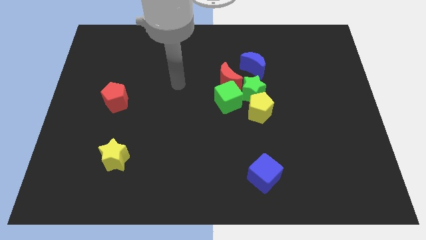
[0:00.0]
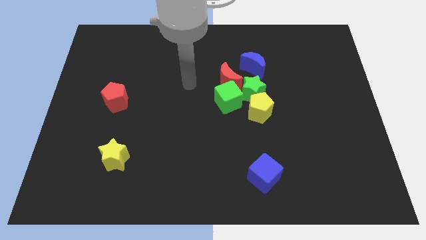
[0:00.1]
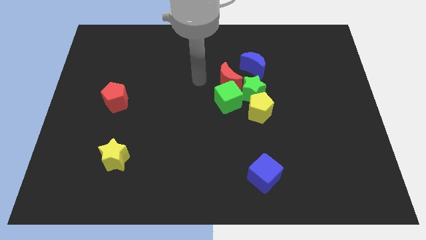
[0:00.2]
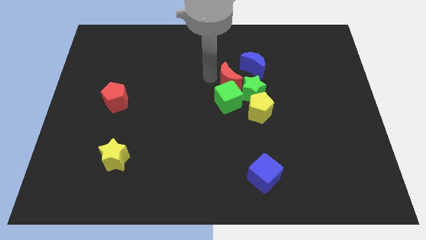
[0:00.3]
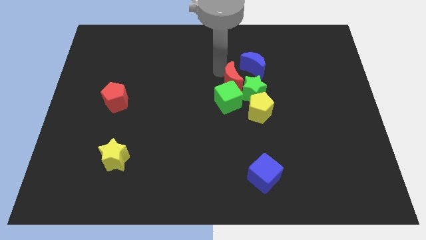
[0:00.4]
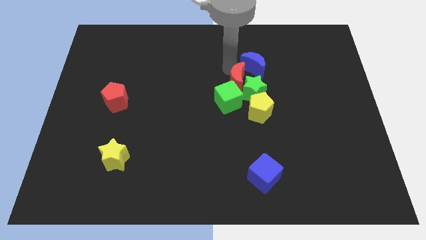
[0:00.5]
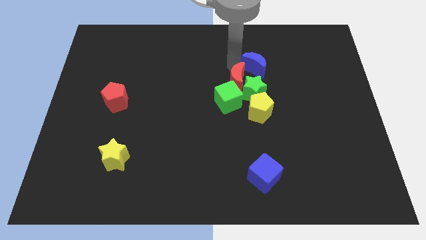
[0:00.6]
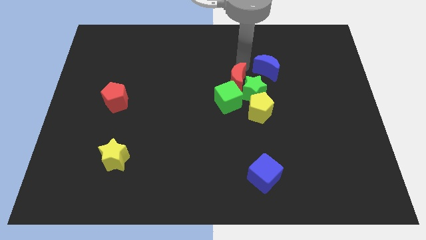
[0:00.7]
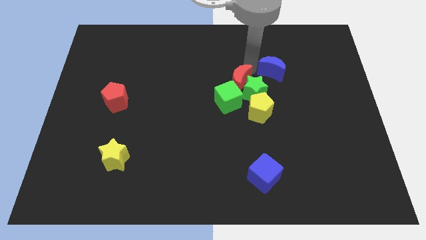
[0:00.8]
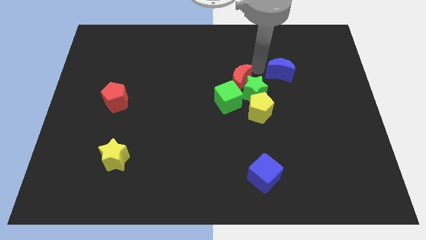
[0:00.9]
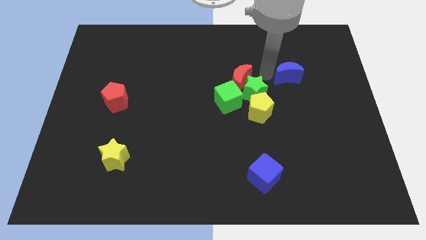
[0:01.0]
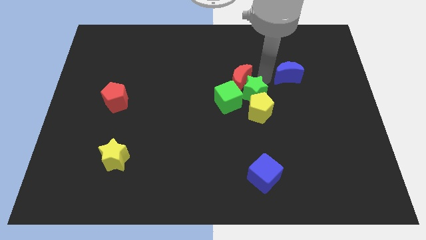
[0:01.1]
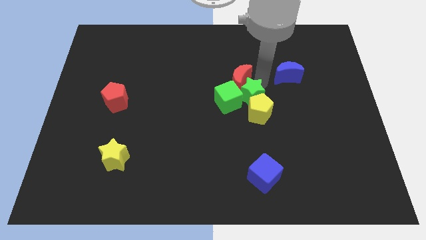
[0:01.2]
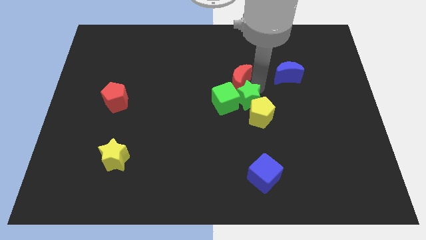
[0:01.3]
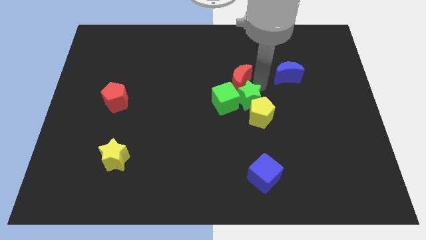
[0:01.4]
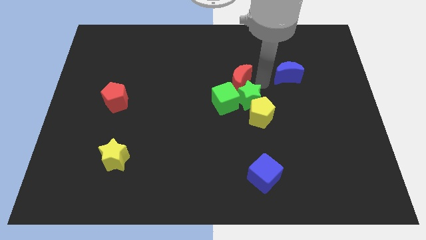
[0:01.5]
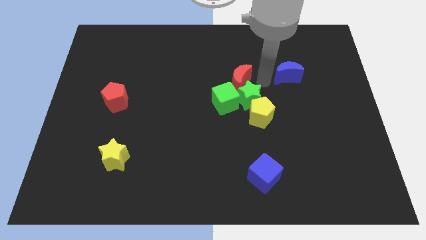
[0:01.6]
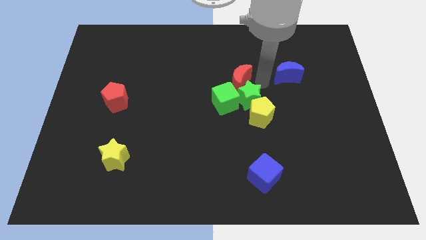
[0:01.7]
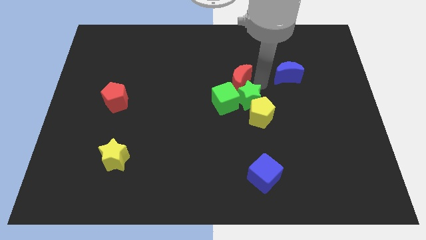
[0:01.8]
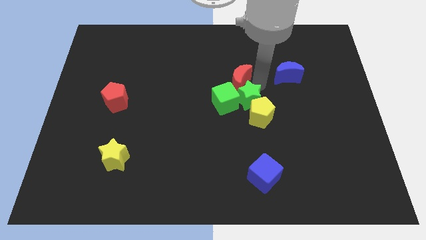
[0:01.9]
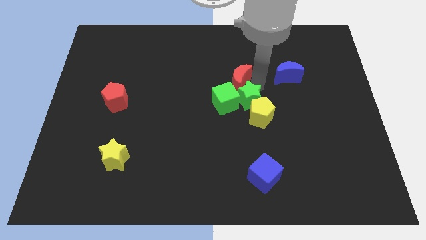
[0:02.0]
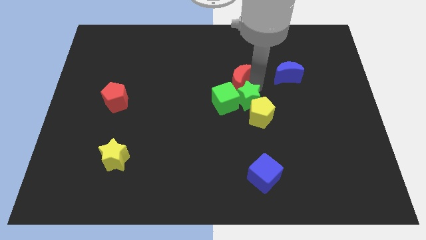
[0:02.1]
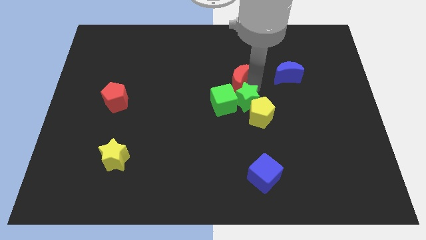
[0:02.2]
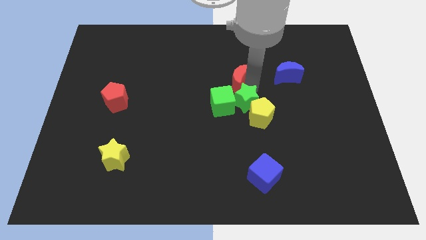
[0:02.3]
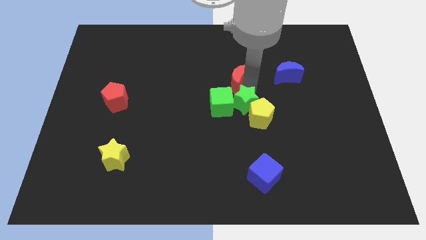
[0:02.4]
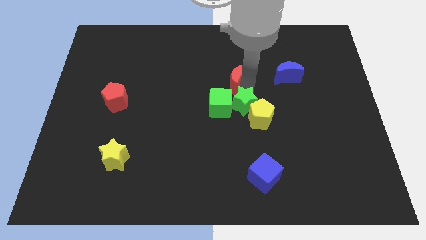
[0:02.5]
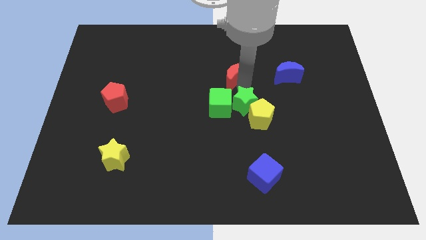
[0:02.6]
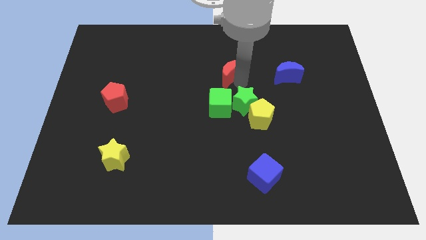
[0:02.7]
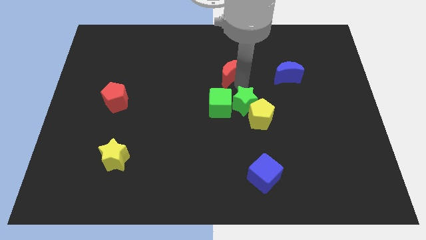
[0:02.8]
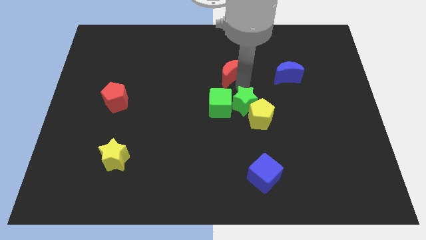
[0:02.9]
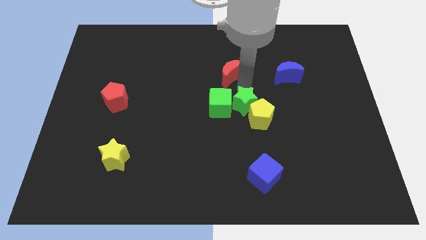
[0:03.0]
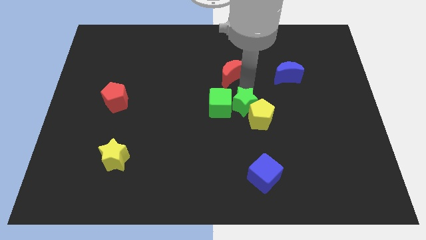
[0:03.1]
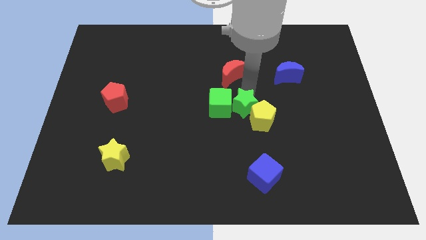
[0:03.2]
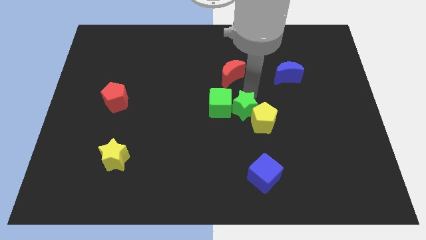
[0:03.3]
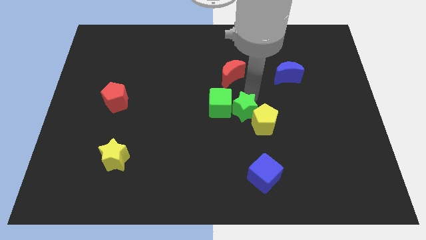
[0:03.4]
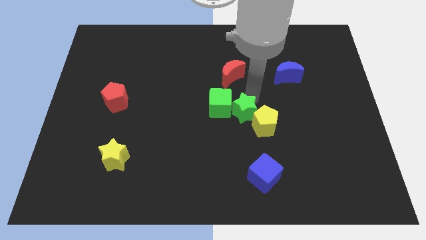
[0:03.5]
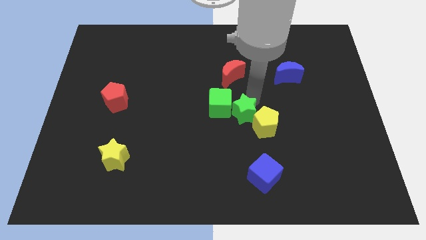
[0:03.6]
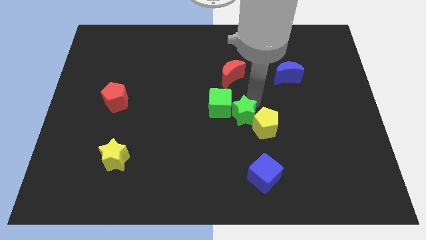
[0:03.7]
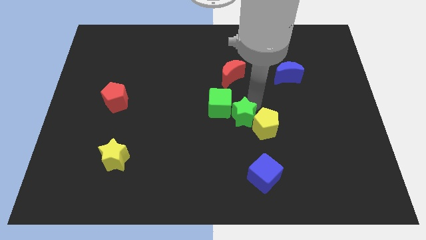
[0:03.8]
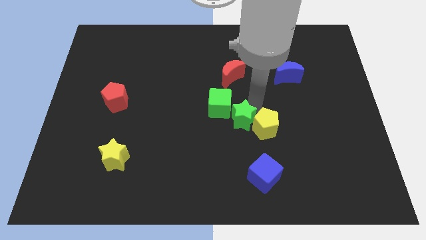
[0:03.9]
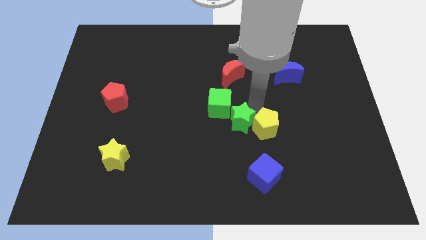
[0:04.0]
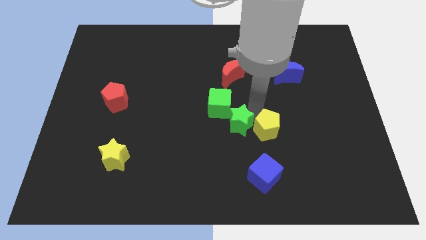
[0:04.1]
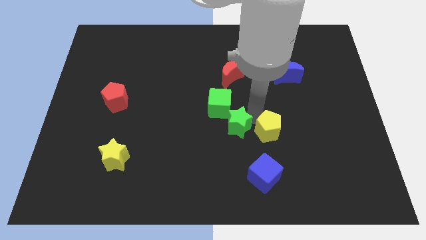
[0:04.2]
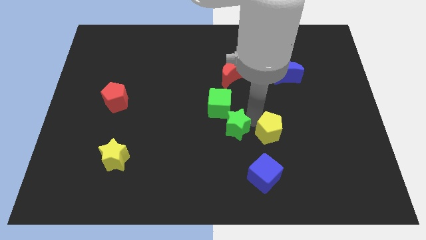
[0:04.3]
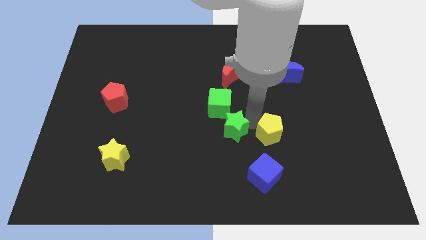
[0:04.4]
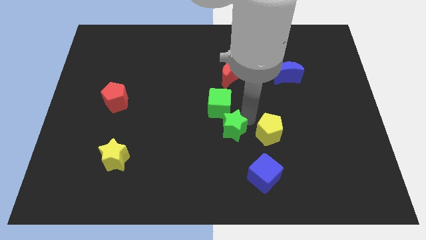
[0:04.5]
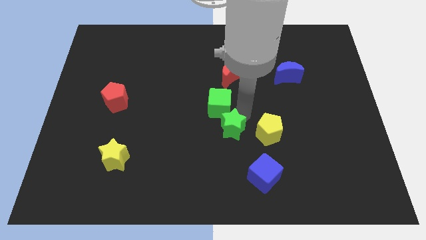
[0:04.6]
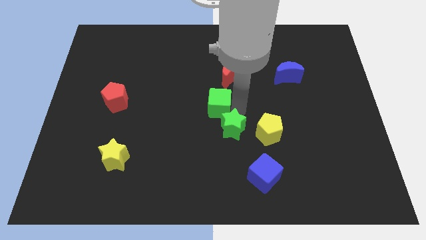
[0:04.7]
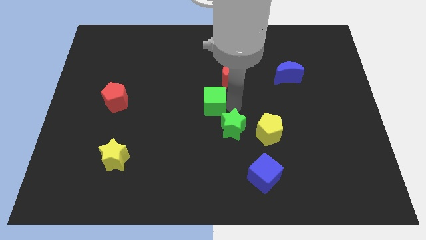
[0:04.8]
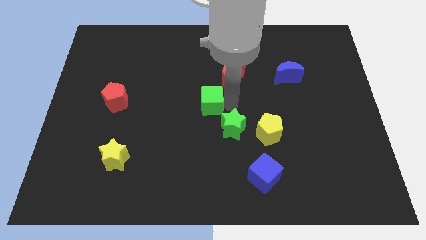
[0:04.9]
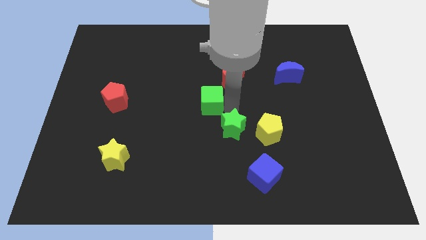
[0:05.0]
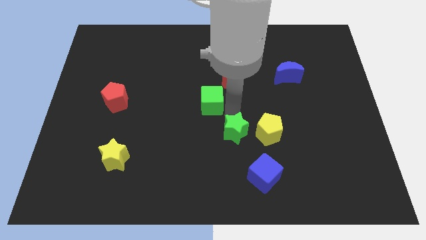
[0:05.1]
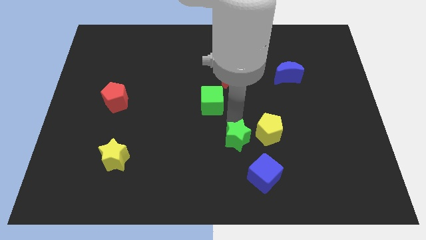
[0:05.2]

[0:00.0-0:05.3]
push the green star diagonally up and to the left of the blue cube

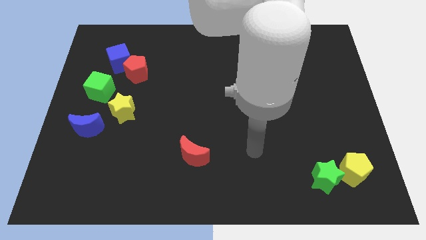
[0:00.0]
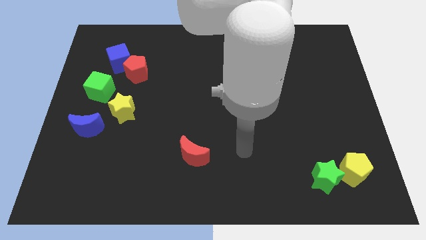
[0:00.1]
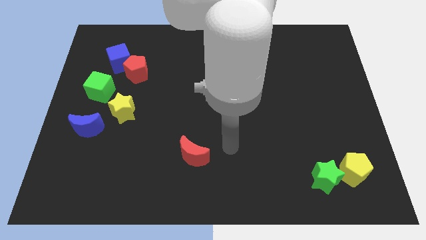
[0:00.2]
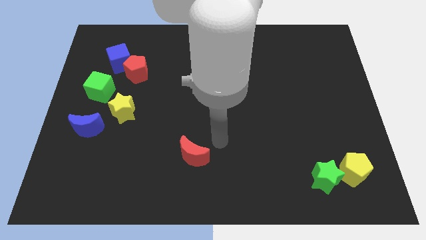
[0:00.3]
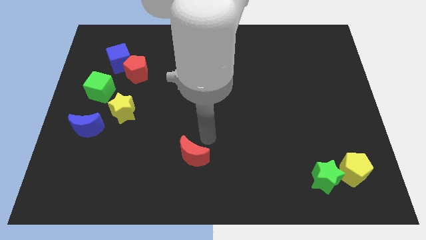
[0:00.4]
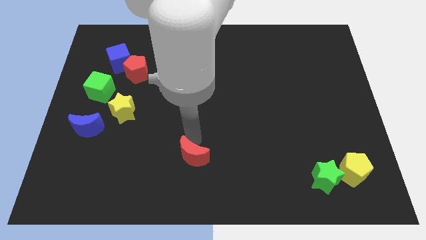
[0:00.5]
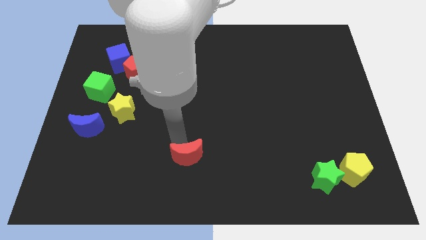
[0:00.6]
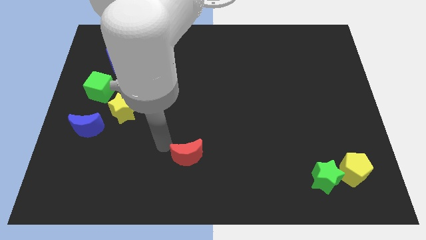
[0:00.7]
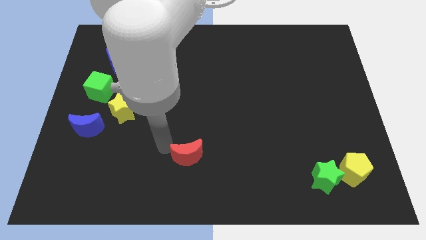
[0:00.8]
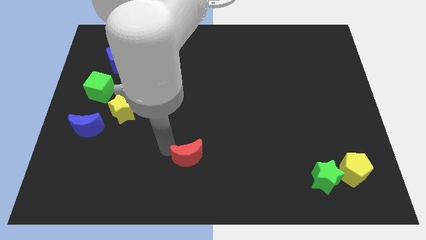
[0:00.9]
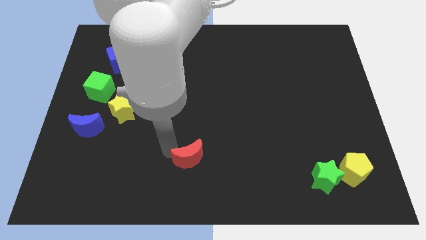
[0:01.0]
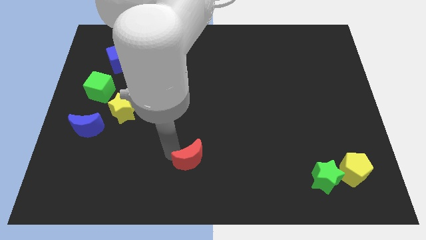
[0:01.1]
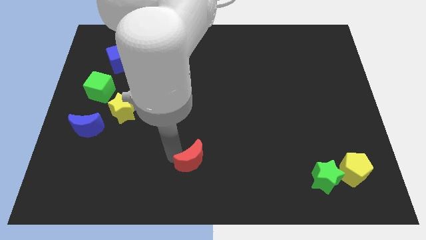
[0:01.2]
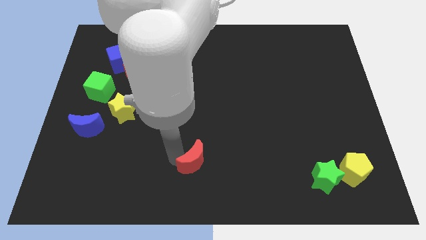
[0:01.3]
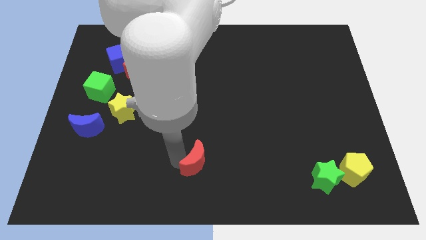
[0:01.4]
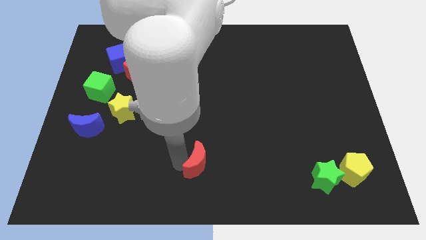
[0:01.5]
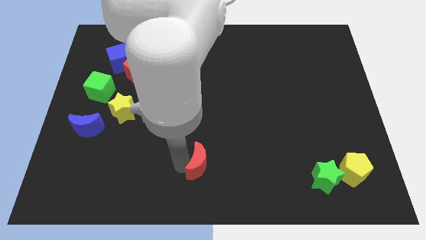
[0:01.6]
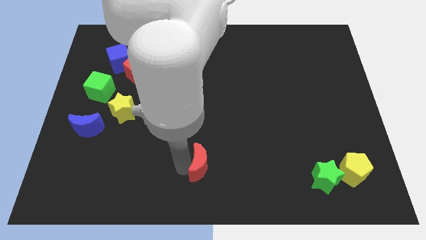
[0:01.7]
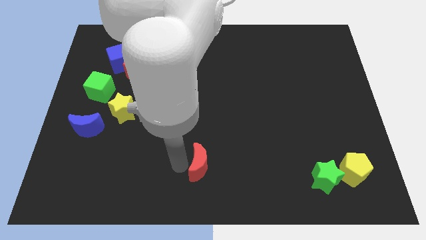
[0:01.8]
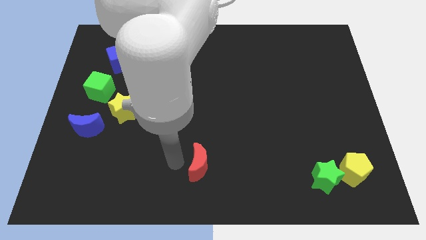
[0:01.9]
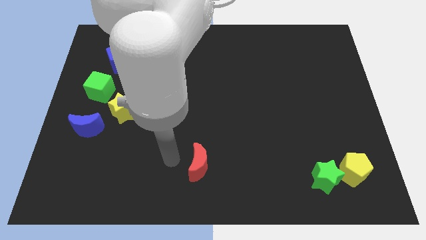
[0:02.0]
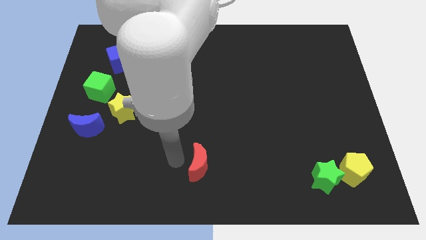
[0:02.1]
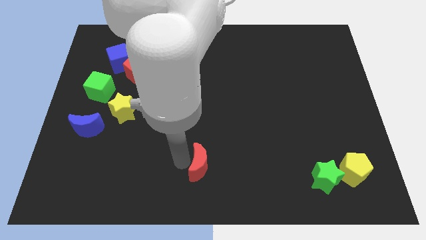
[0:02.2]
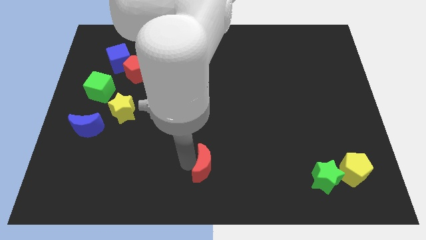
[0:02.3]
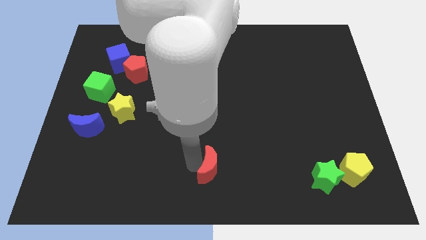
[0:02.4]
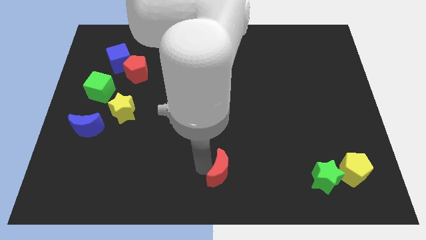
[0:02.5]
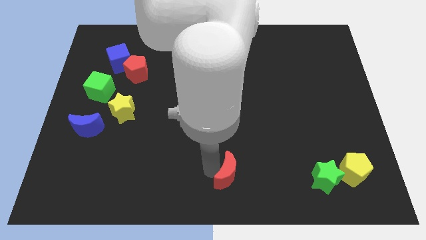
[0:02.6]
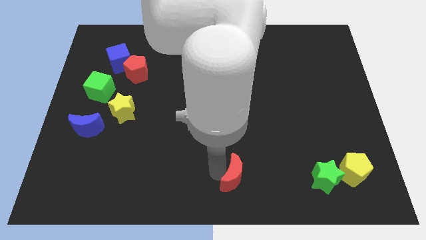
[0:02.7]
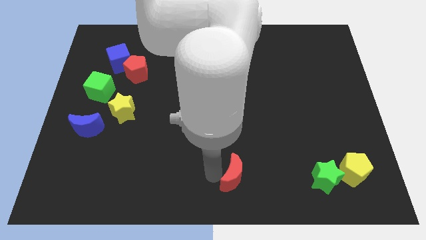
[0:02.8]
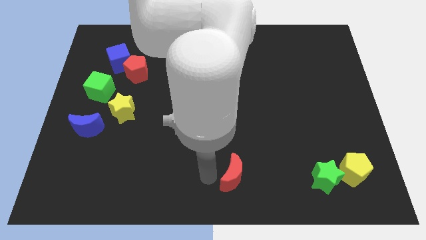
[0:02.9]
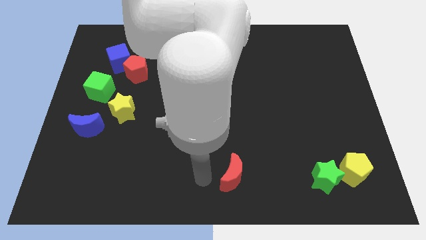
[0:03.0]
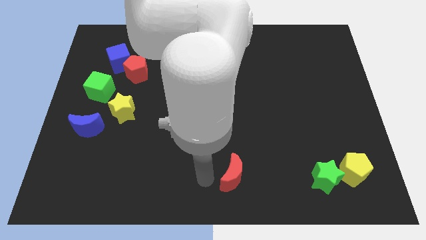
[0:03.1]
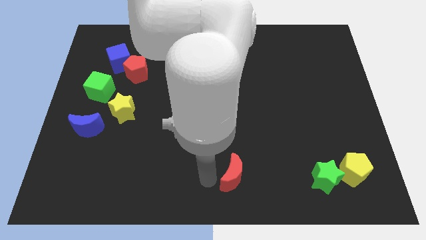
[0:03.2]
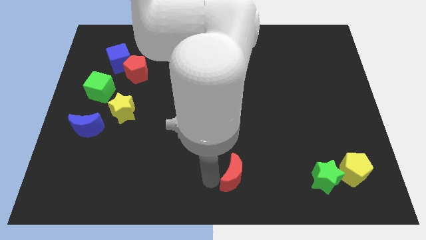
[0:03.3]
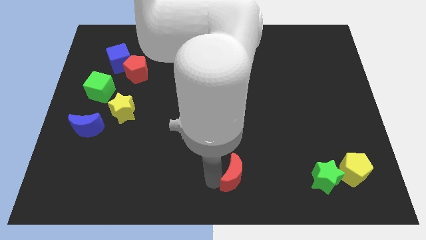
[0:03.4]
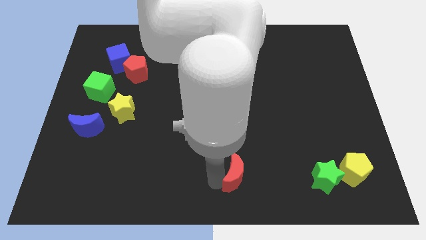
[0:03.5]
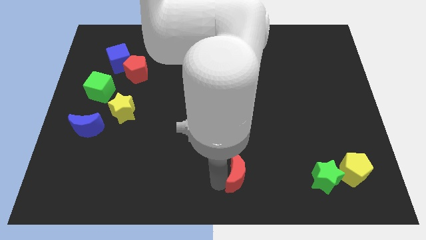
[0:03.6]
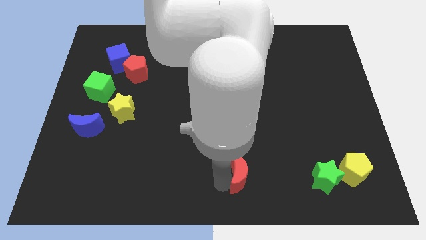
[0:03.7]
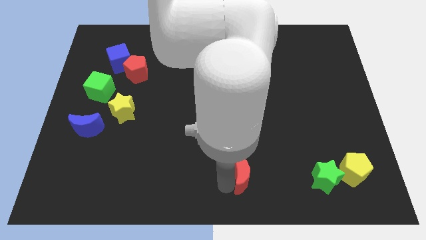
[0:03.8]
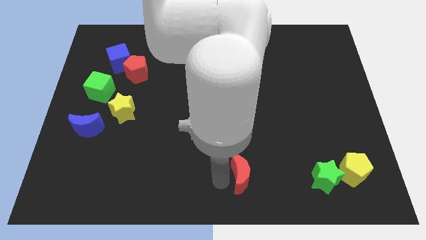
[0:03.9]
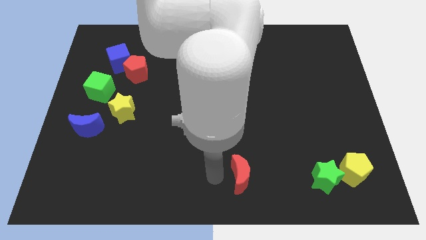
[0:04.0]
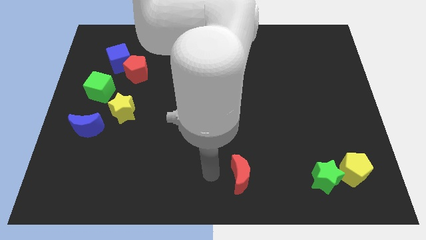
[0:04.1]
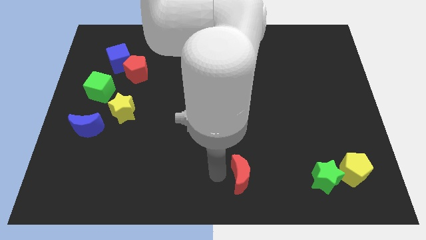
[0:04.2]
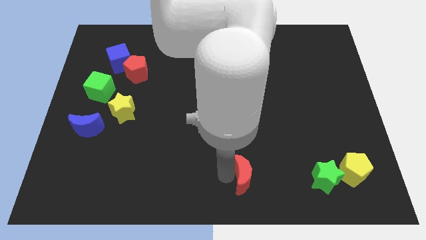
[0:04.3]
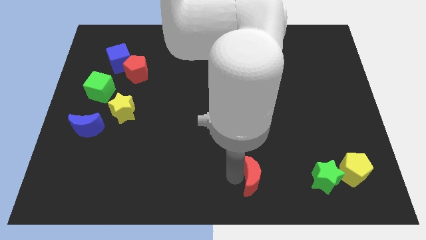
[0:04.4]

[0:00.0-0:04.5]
push the red moon just left of the green star
